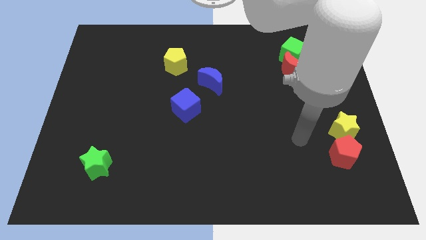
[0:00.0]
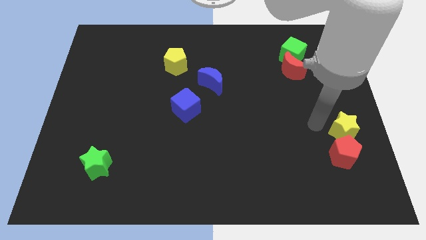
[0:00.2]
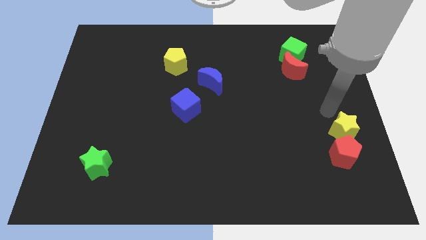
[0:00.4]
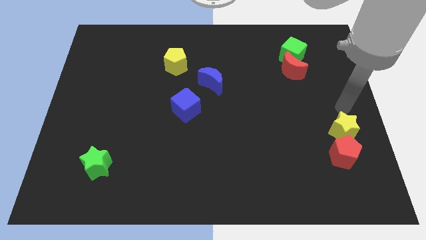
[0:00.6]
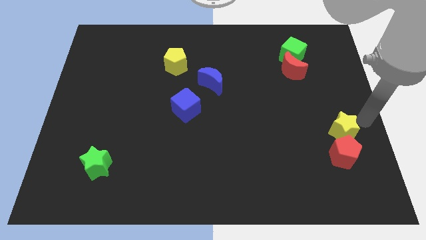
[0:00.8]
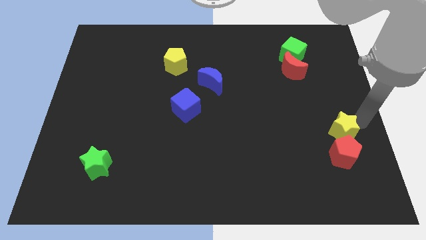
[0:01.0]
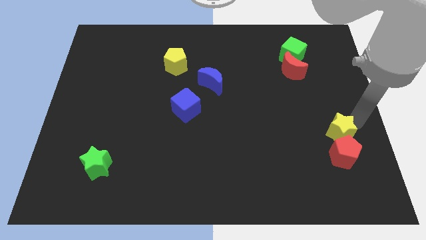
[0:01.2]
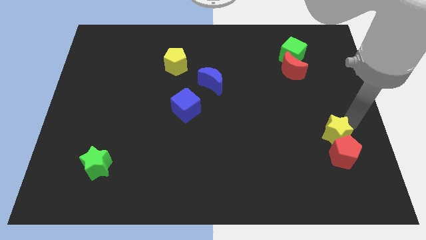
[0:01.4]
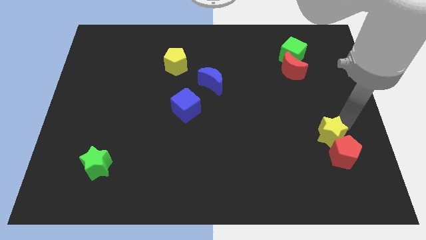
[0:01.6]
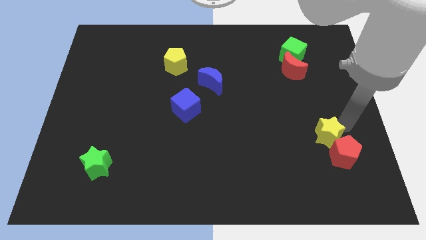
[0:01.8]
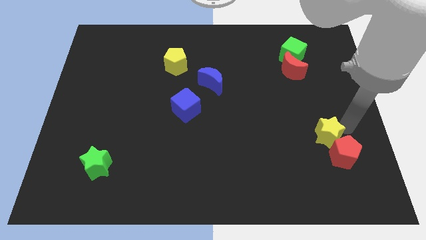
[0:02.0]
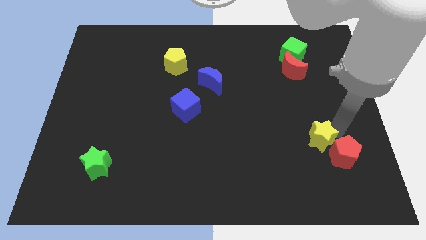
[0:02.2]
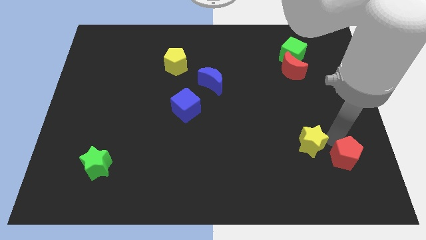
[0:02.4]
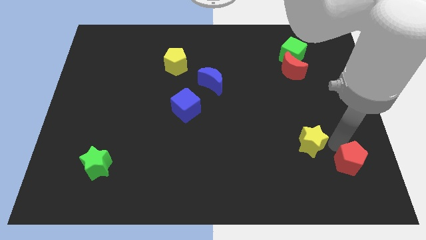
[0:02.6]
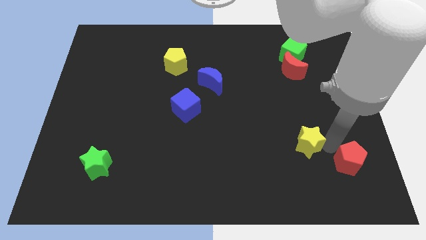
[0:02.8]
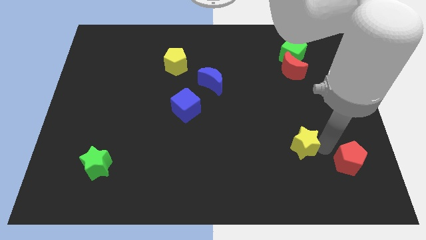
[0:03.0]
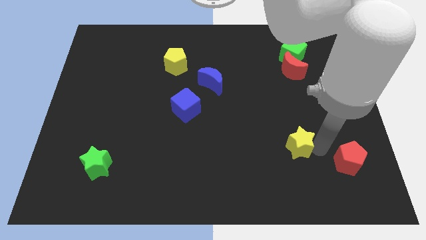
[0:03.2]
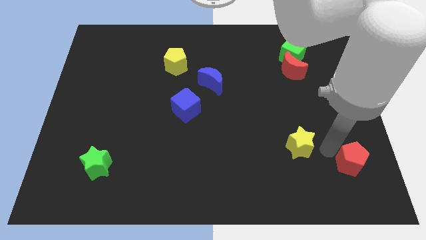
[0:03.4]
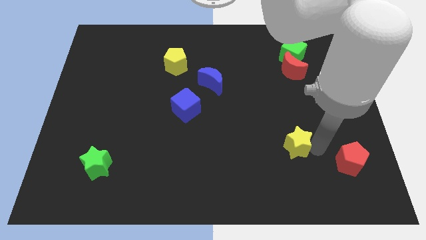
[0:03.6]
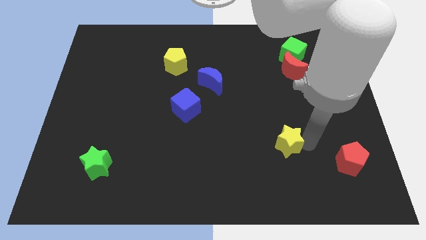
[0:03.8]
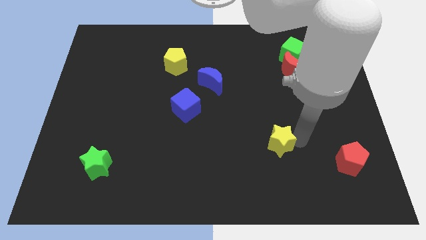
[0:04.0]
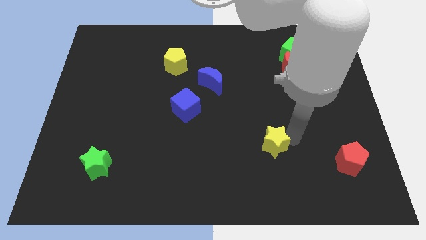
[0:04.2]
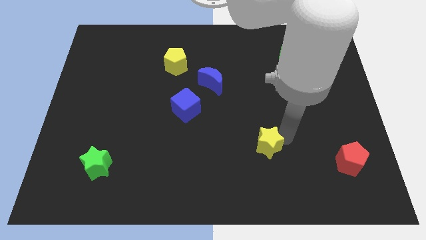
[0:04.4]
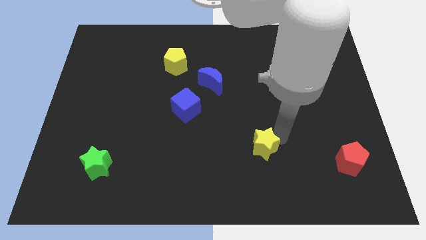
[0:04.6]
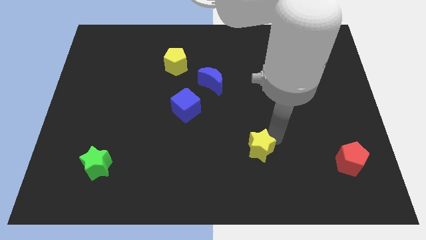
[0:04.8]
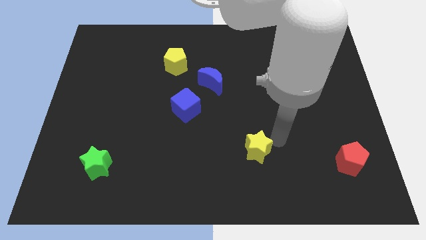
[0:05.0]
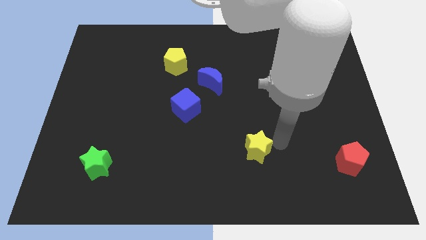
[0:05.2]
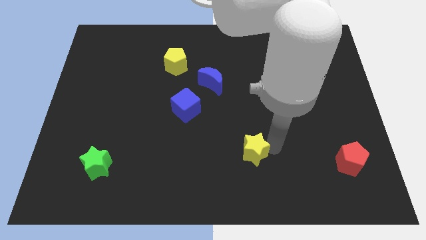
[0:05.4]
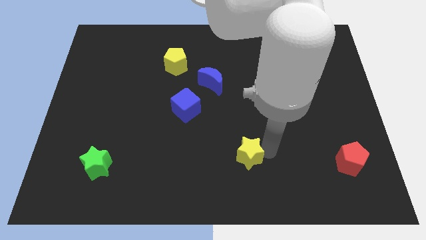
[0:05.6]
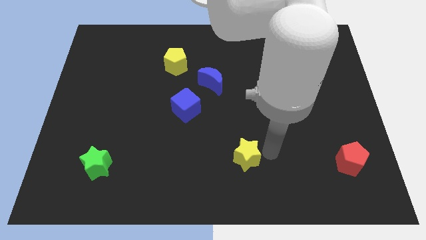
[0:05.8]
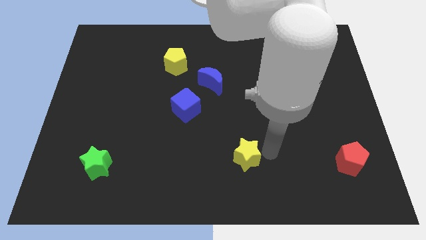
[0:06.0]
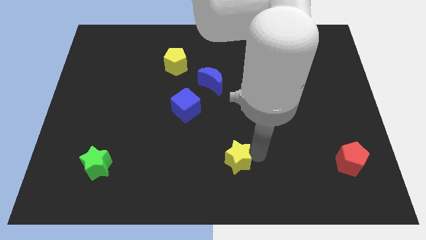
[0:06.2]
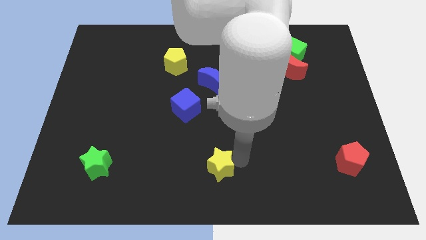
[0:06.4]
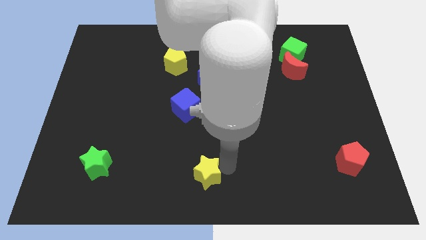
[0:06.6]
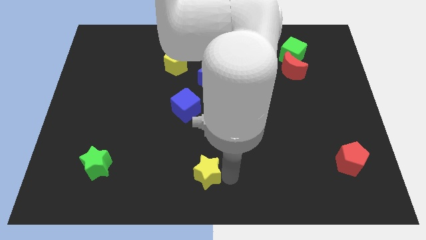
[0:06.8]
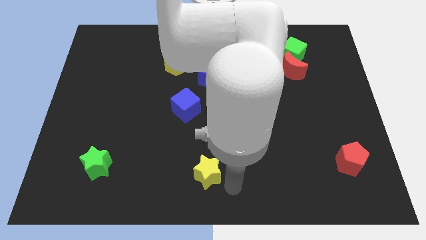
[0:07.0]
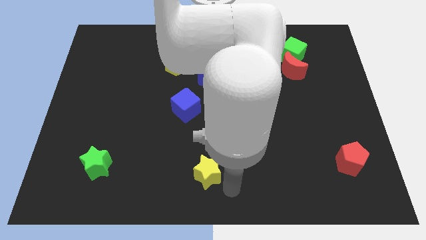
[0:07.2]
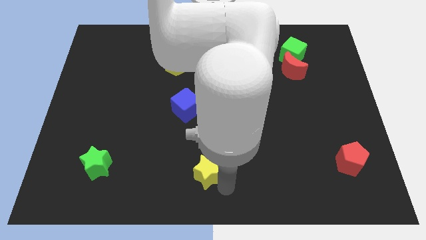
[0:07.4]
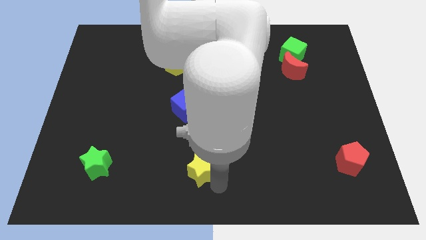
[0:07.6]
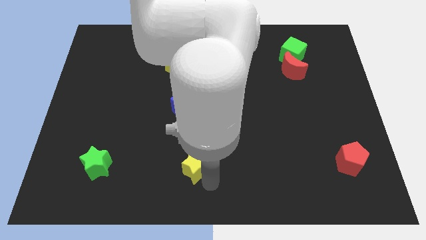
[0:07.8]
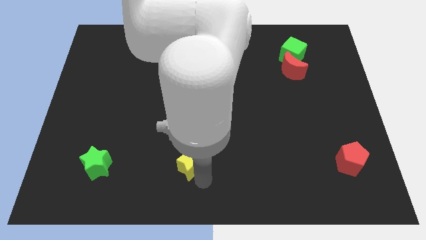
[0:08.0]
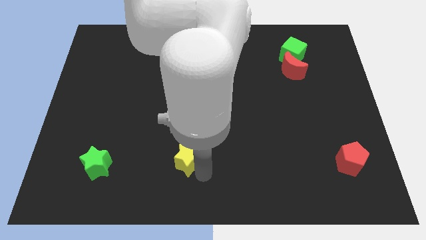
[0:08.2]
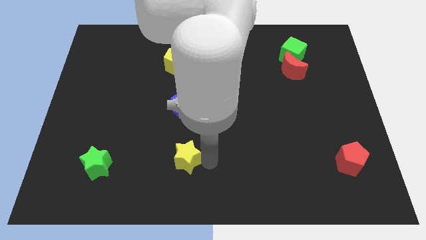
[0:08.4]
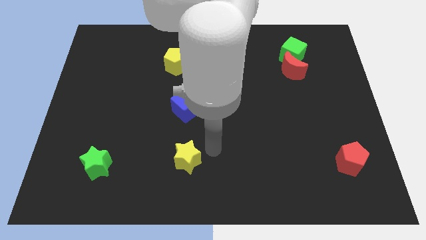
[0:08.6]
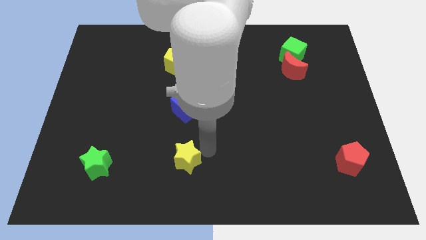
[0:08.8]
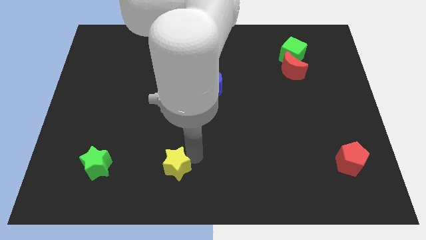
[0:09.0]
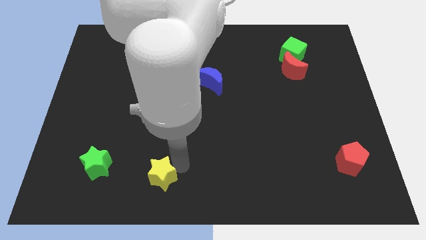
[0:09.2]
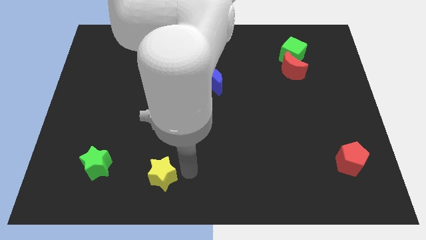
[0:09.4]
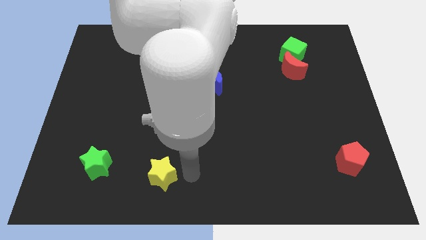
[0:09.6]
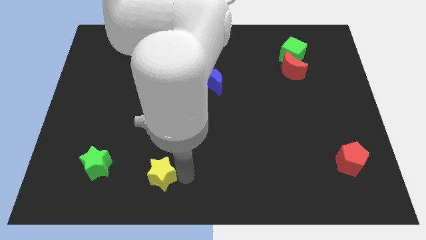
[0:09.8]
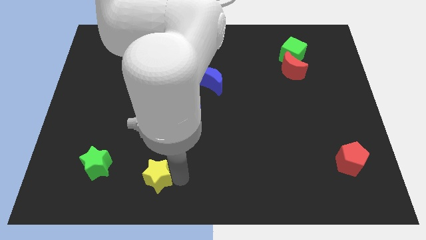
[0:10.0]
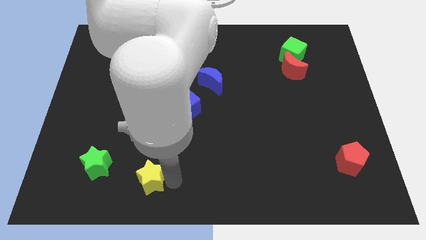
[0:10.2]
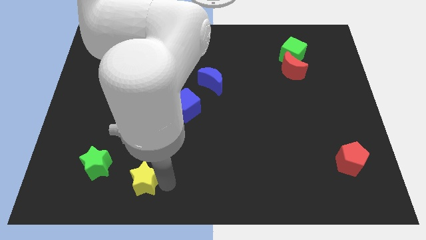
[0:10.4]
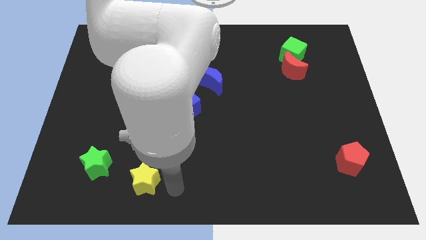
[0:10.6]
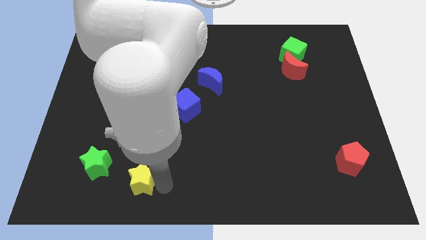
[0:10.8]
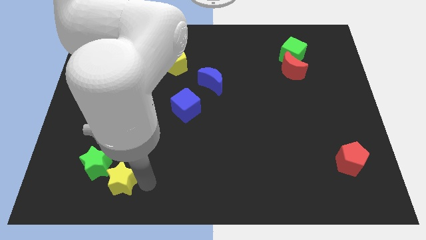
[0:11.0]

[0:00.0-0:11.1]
move the yellow star towards the green star

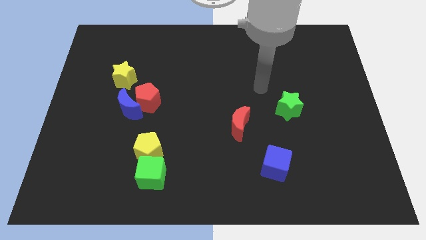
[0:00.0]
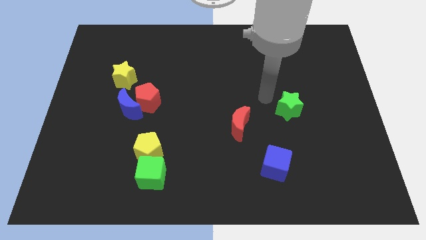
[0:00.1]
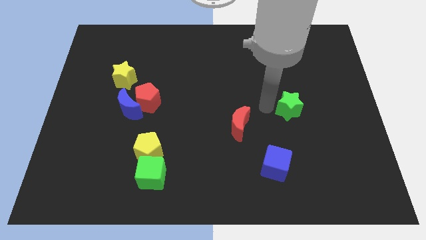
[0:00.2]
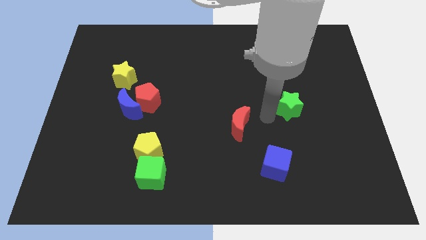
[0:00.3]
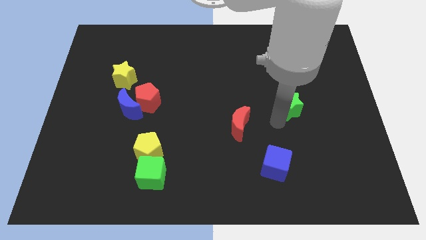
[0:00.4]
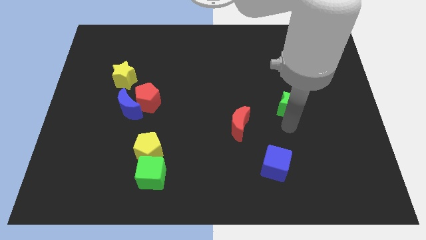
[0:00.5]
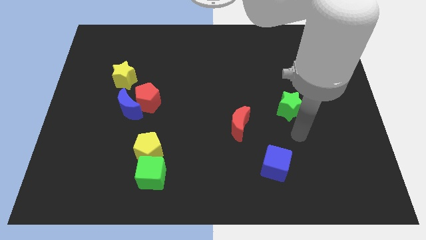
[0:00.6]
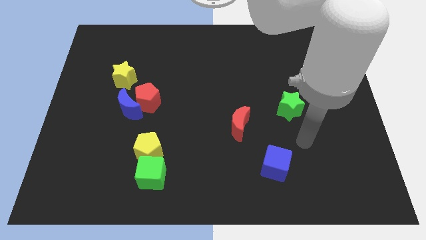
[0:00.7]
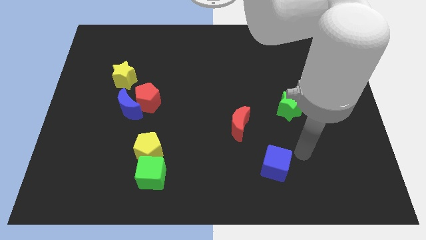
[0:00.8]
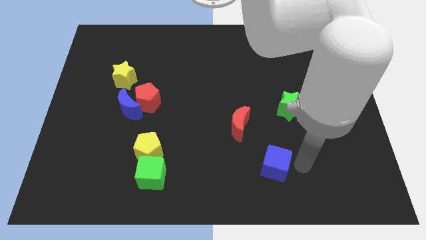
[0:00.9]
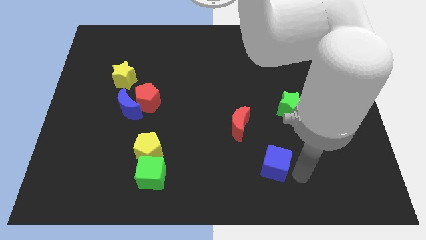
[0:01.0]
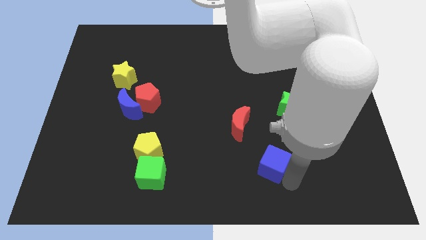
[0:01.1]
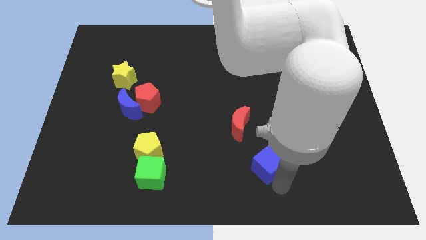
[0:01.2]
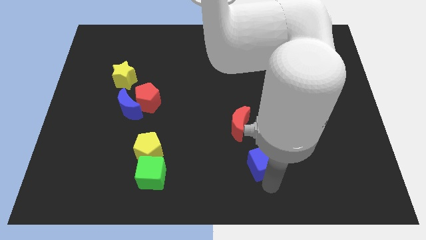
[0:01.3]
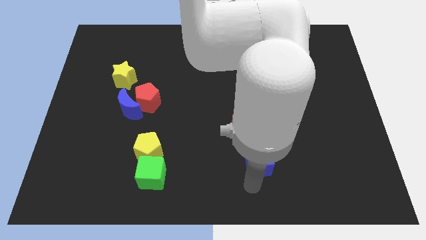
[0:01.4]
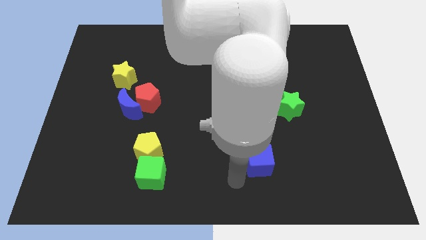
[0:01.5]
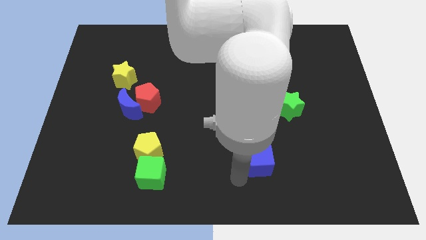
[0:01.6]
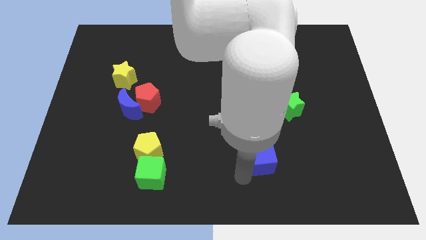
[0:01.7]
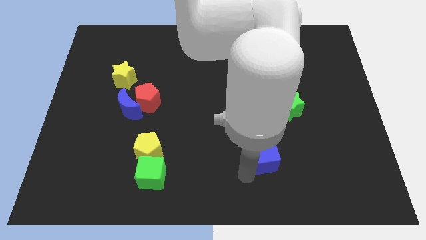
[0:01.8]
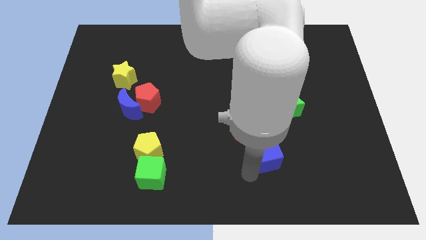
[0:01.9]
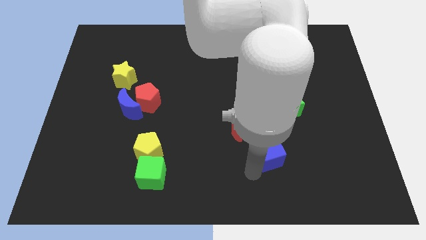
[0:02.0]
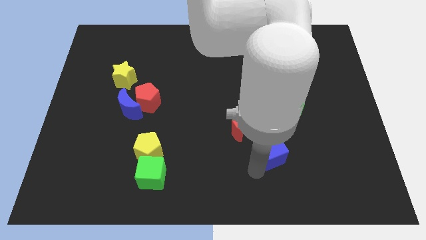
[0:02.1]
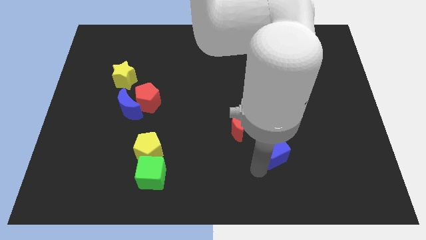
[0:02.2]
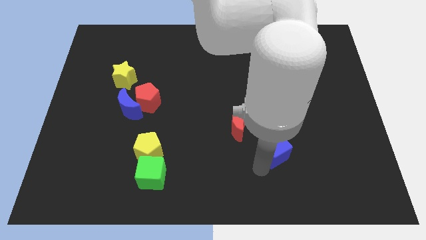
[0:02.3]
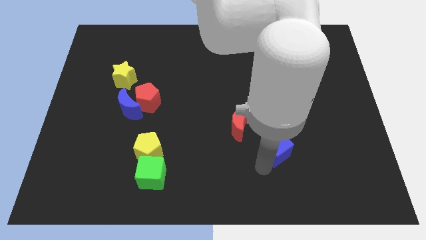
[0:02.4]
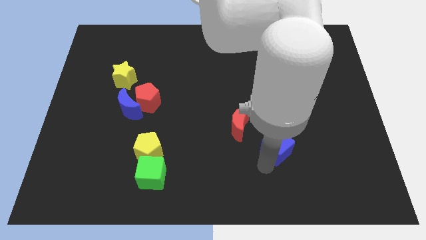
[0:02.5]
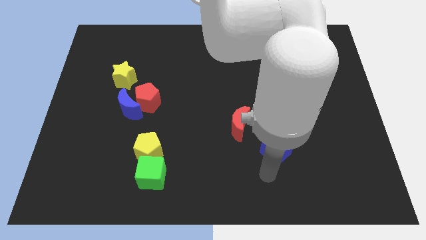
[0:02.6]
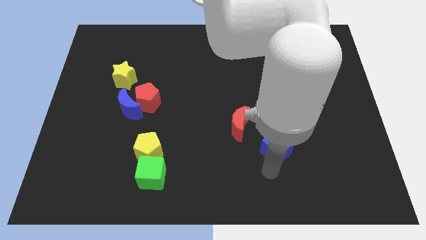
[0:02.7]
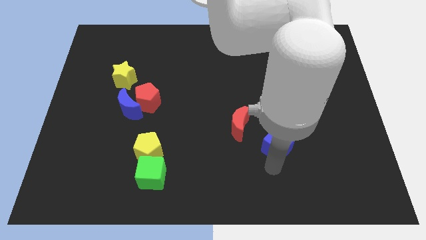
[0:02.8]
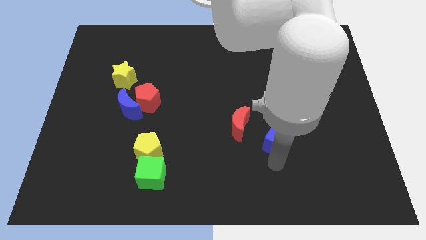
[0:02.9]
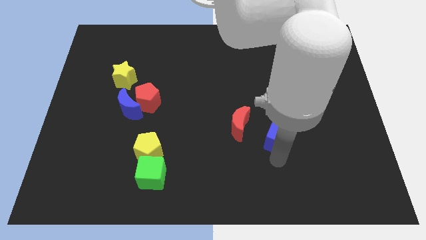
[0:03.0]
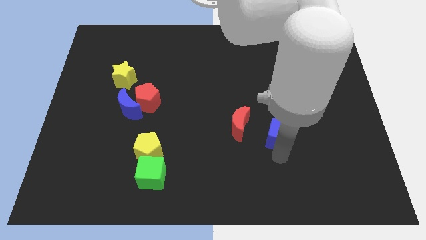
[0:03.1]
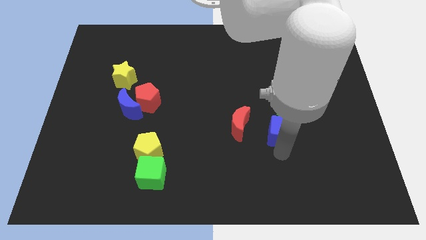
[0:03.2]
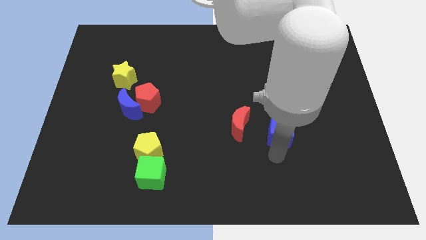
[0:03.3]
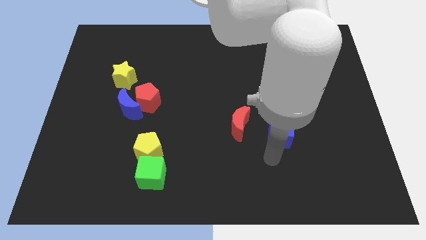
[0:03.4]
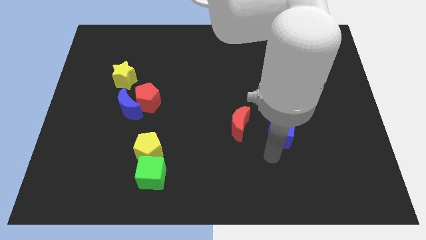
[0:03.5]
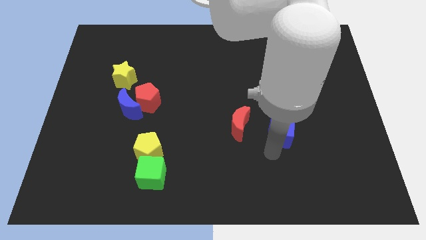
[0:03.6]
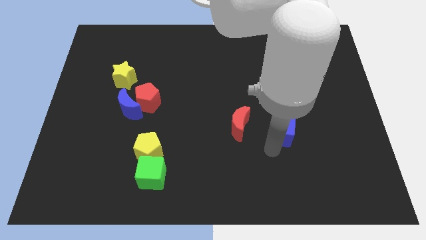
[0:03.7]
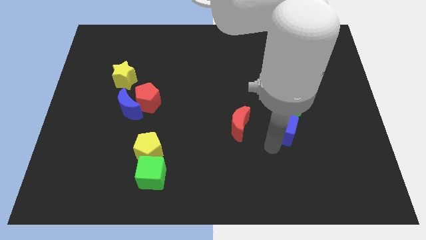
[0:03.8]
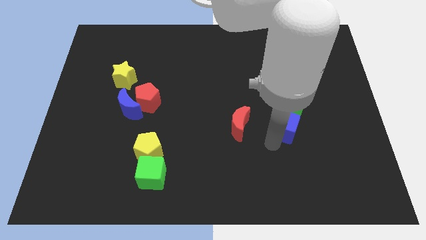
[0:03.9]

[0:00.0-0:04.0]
move the blue cube close to the green star
